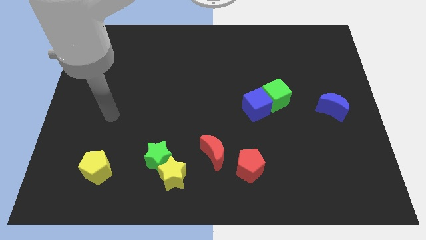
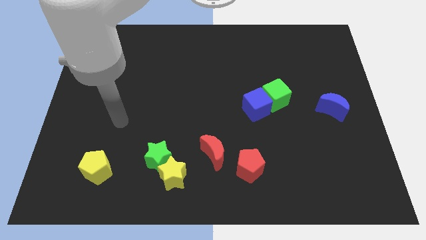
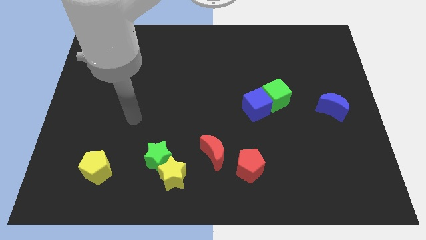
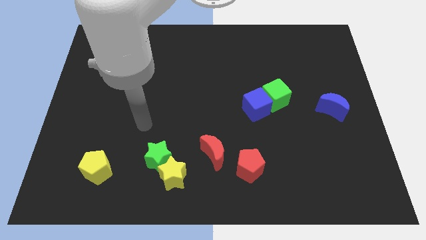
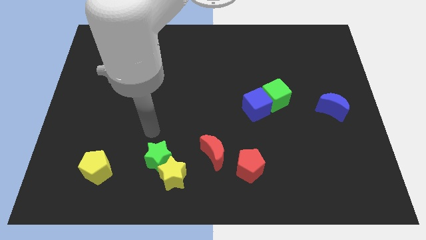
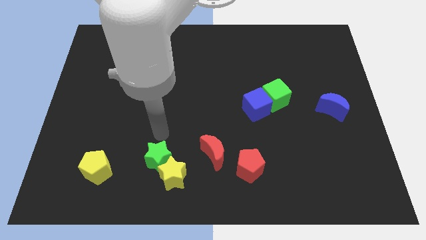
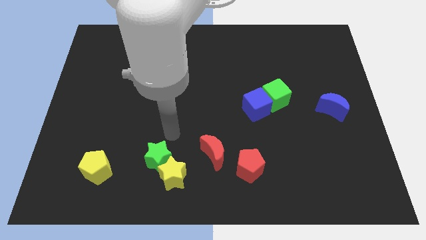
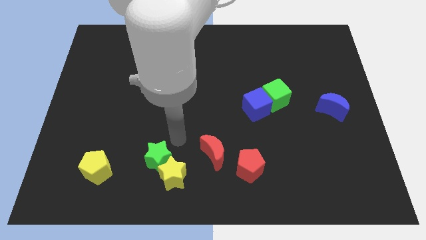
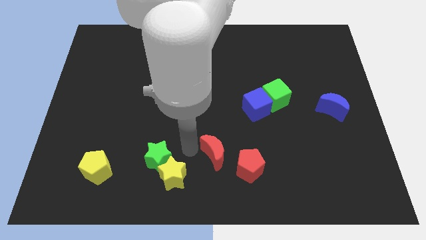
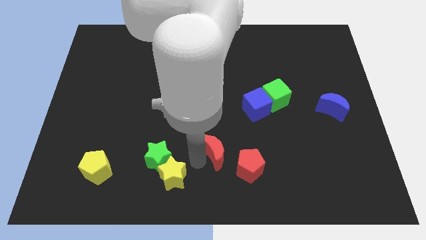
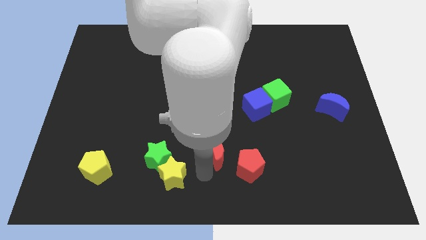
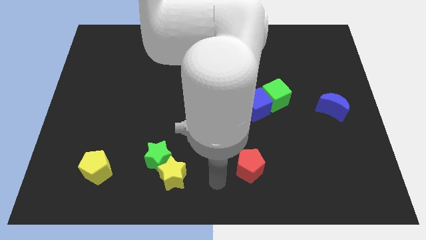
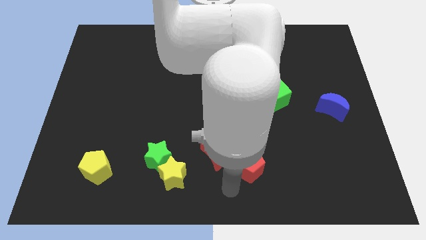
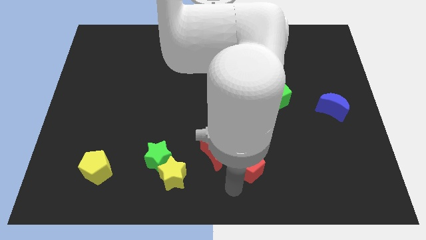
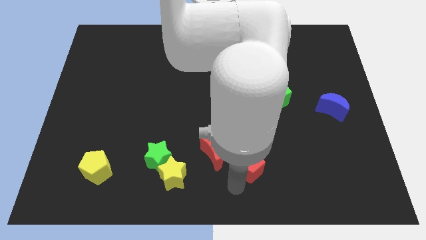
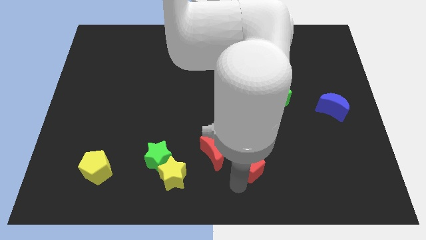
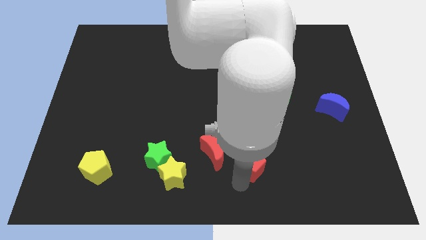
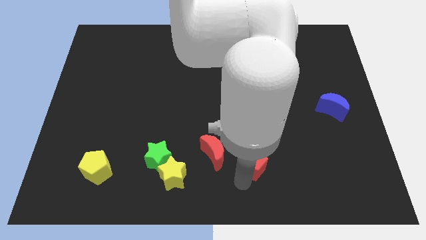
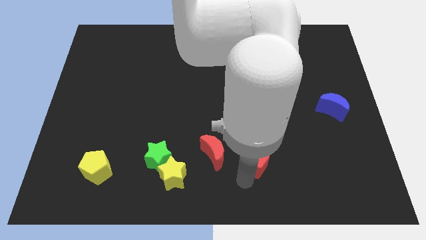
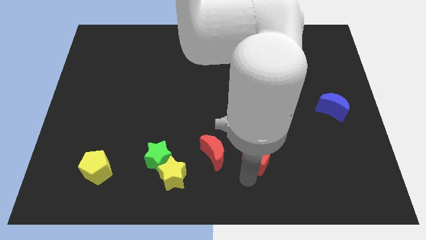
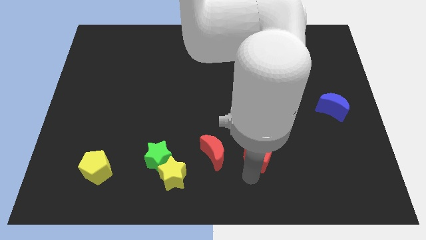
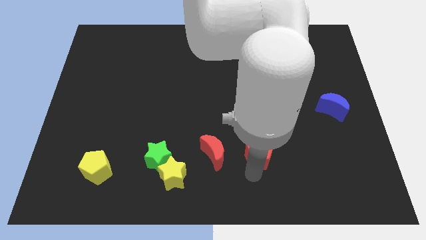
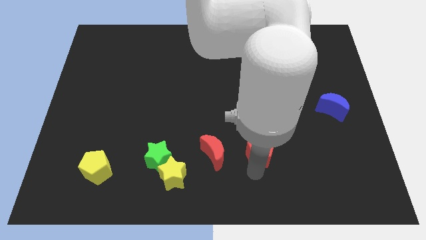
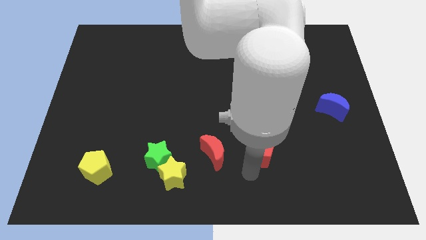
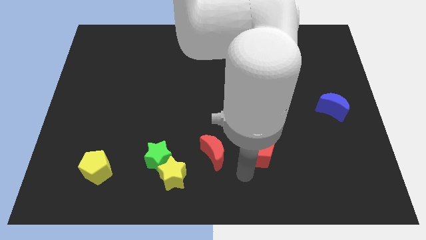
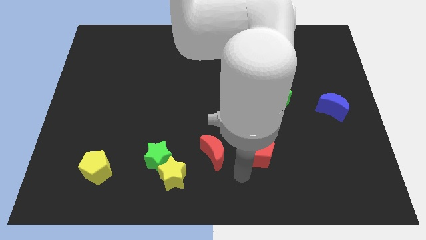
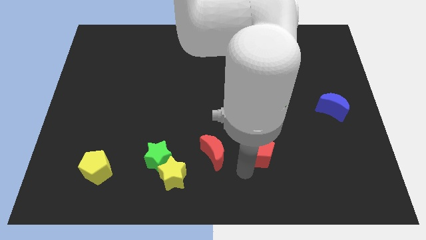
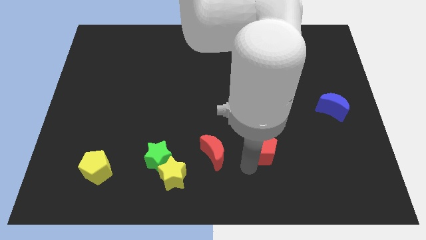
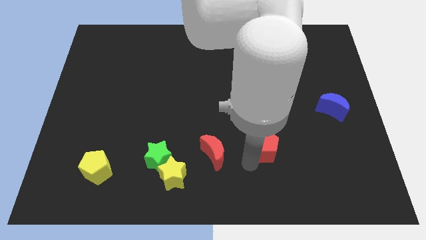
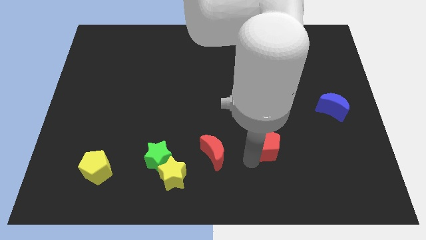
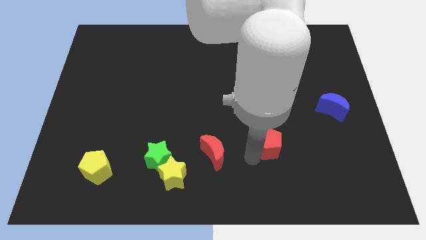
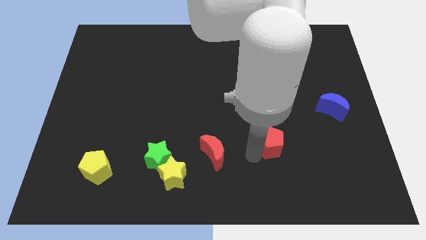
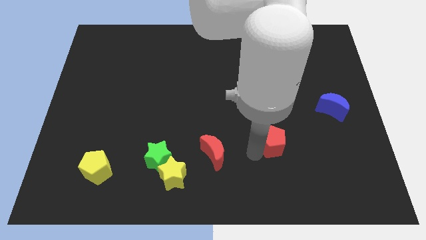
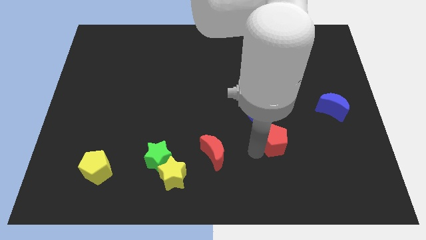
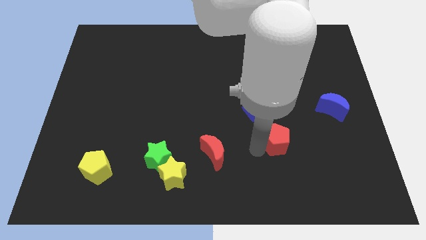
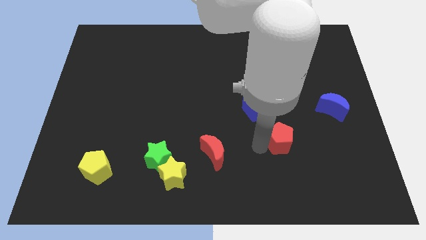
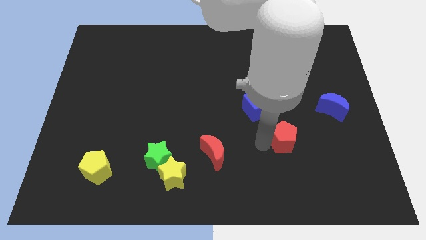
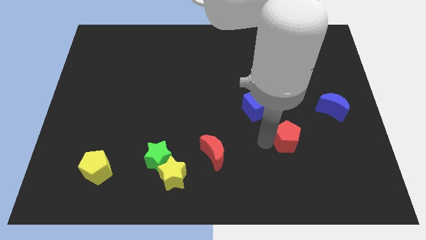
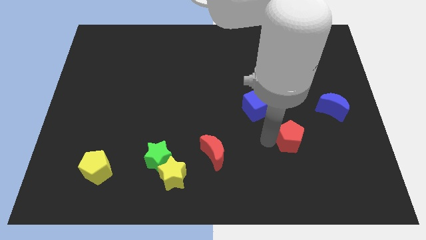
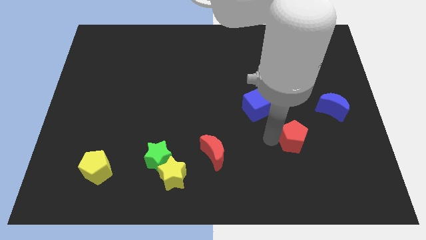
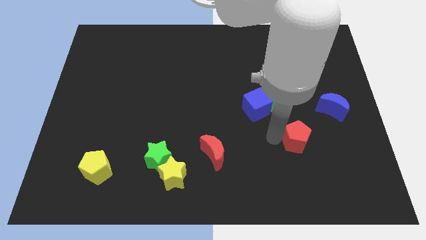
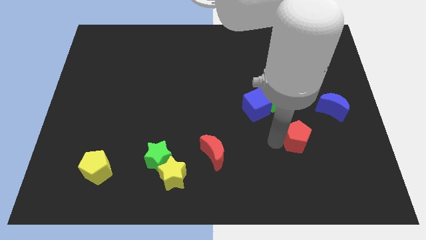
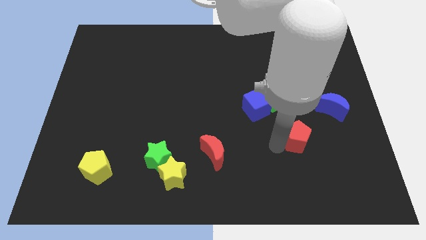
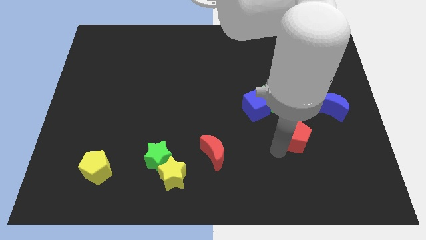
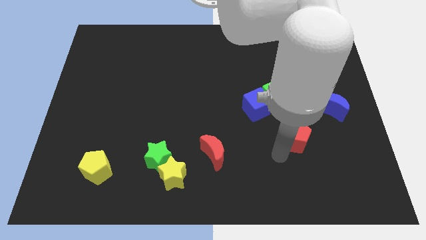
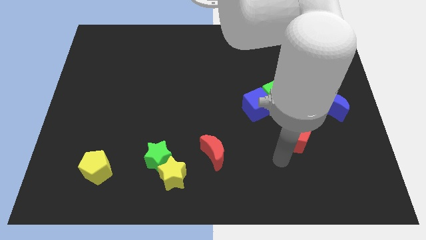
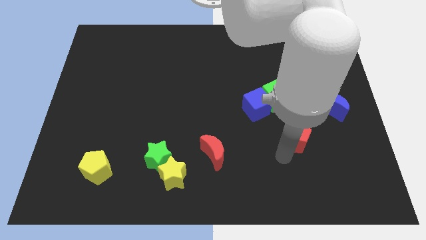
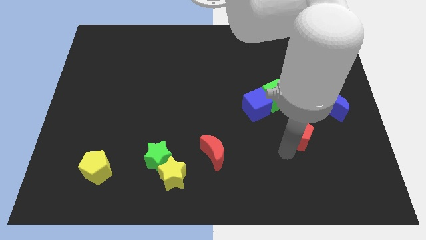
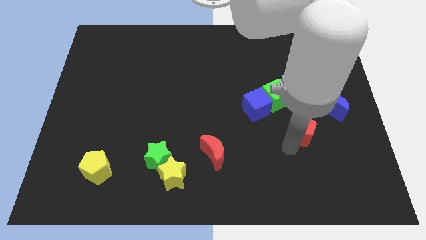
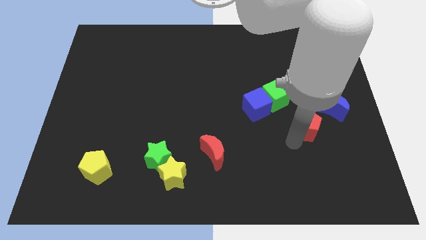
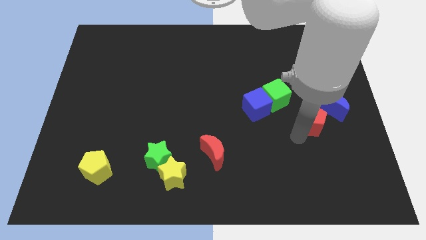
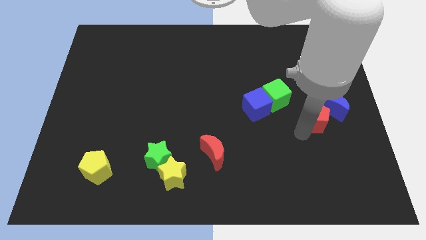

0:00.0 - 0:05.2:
push the red pentagon to the blue moon

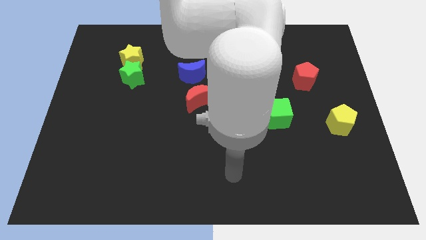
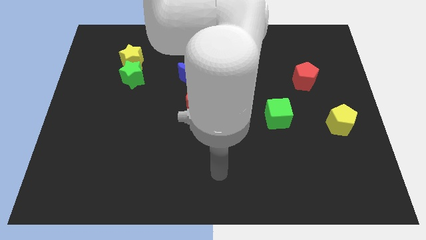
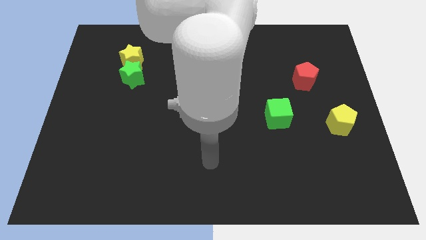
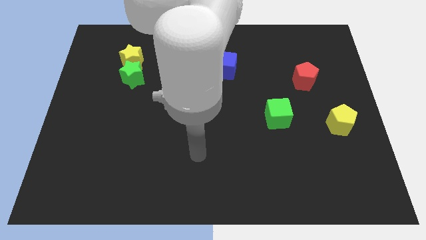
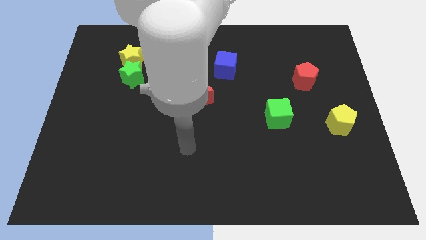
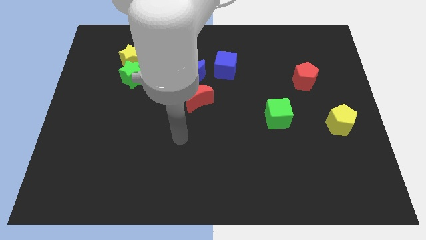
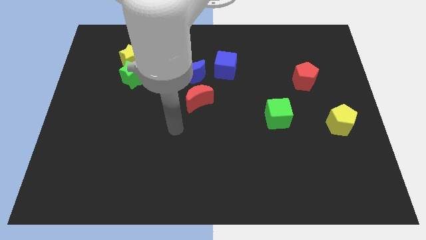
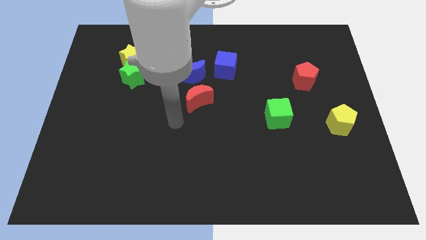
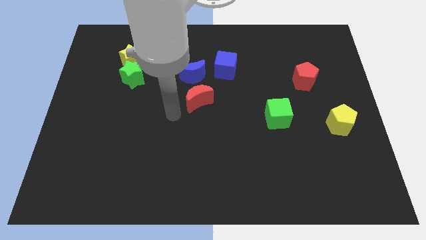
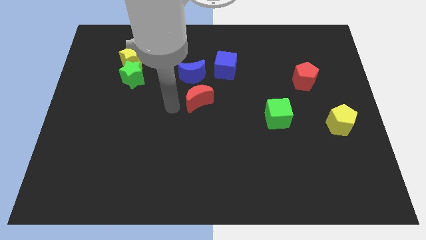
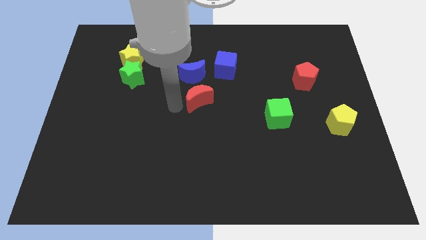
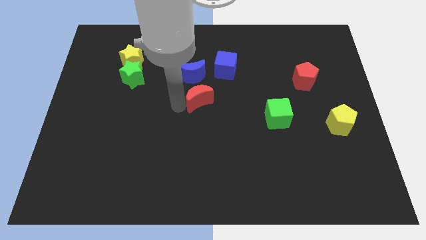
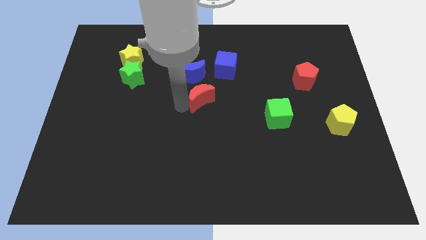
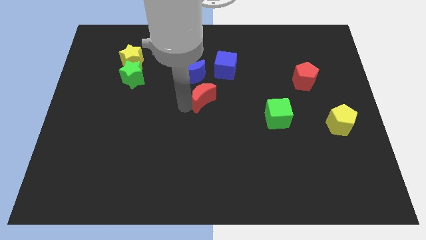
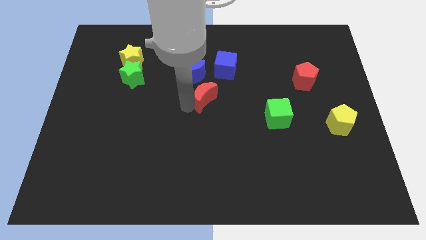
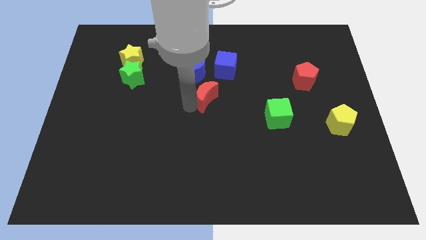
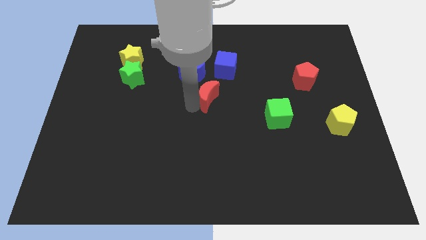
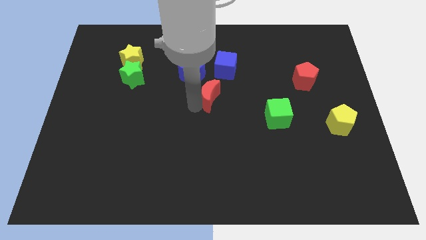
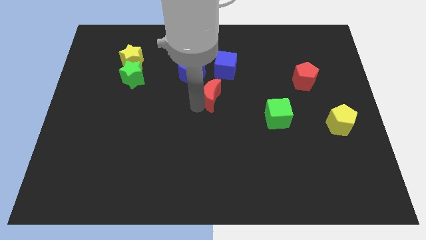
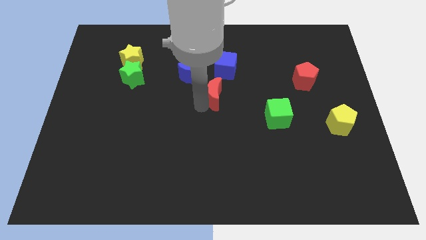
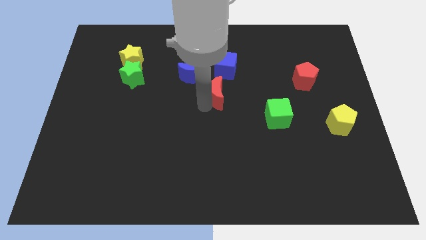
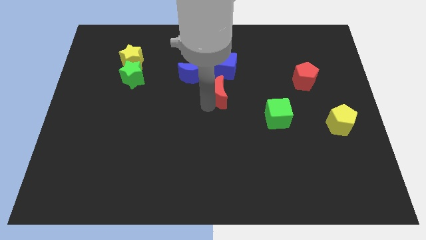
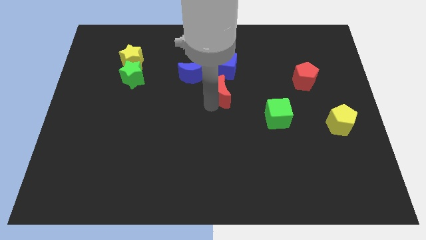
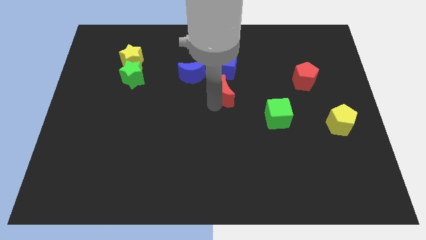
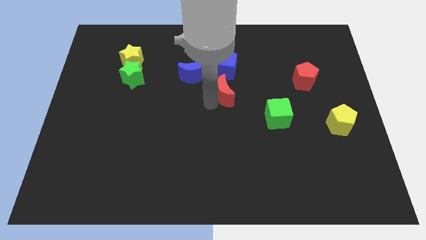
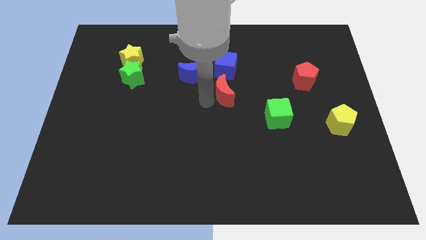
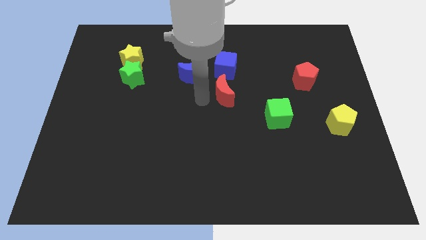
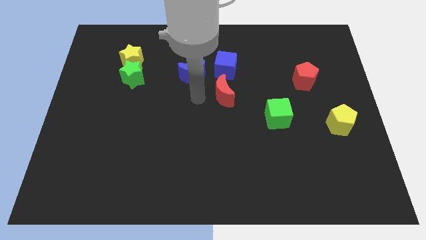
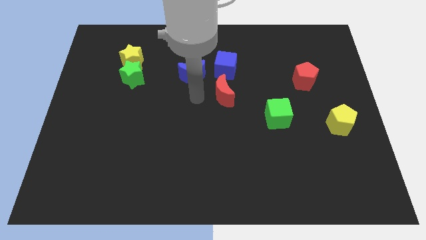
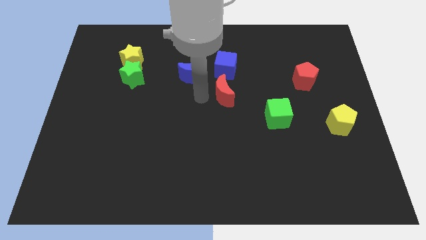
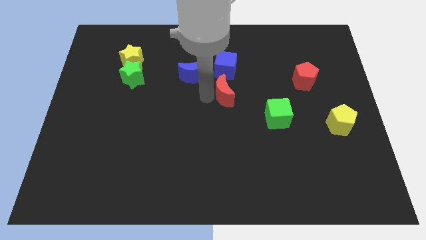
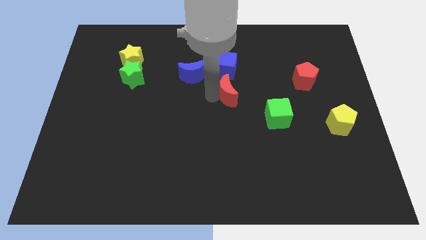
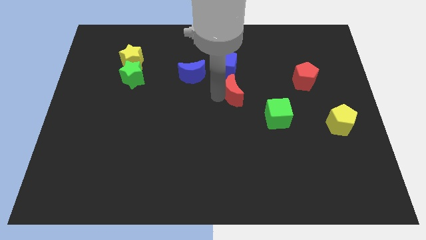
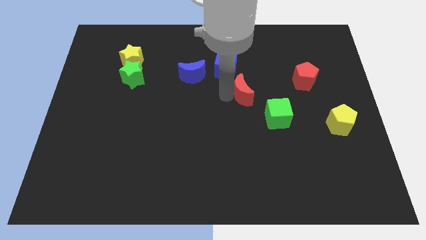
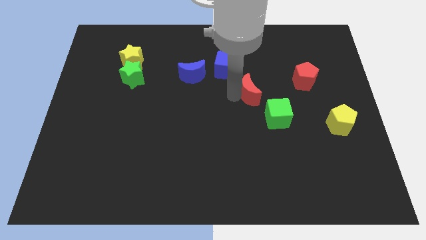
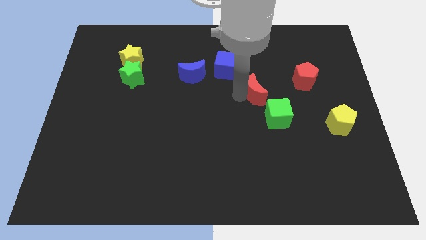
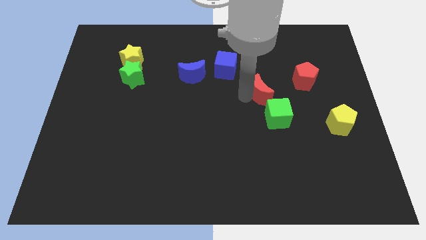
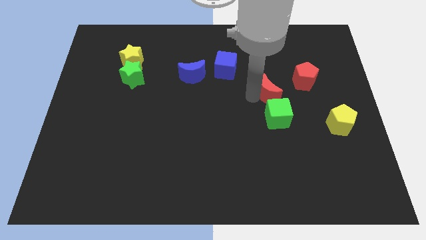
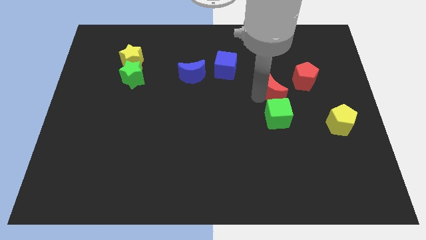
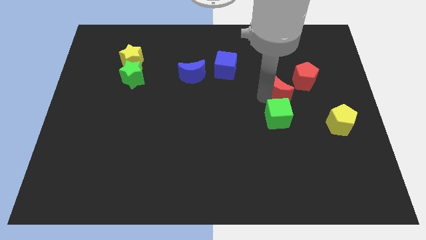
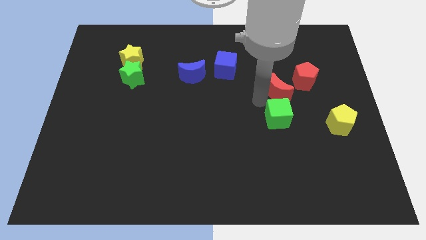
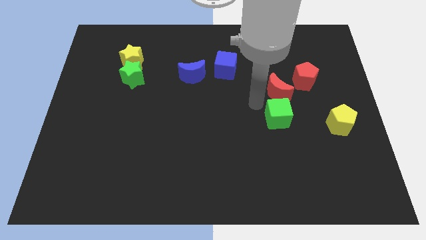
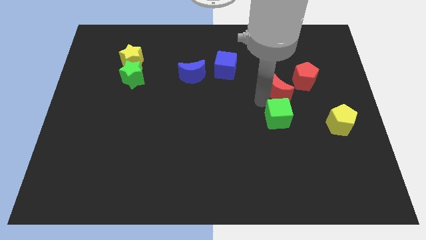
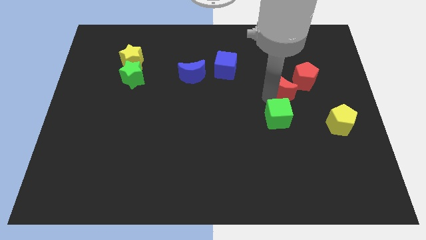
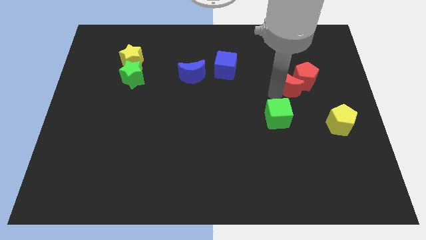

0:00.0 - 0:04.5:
push the red moon next to the red pentagon
